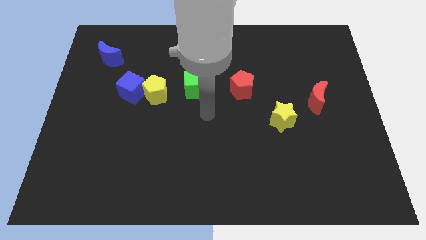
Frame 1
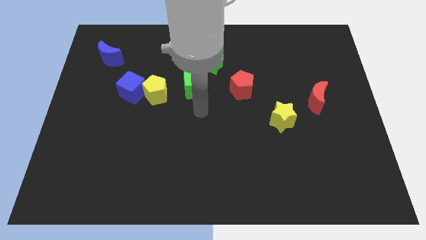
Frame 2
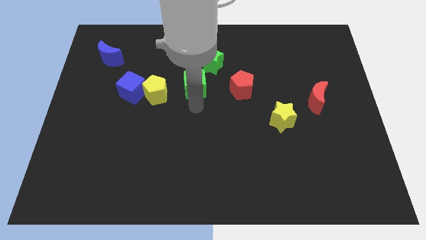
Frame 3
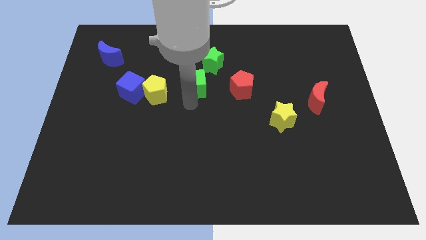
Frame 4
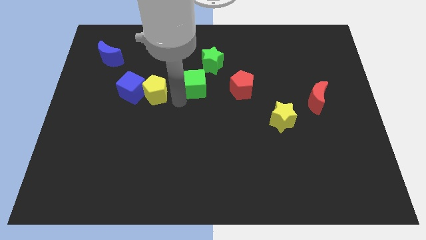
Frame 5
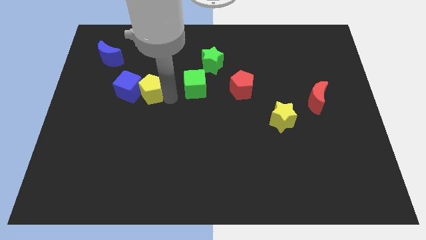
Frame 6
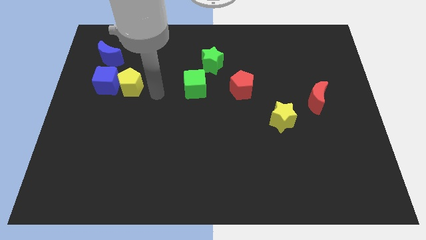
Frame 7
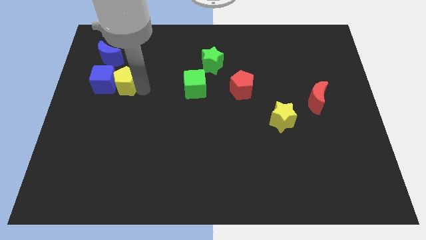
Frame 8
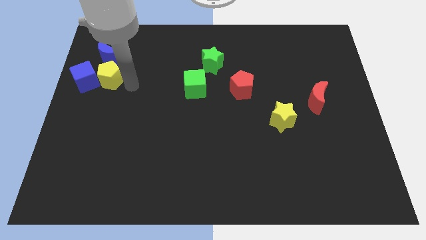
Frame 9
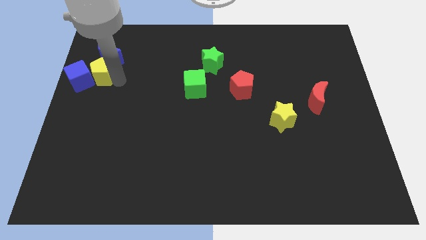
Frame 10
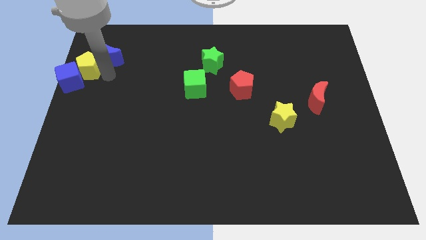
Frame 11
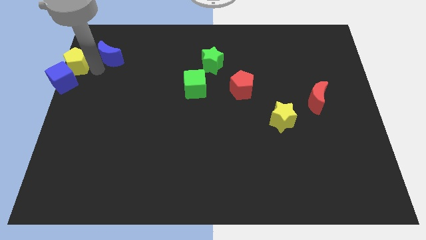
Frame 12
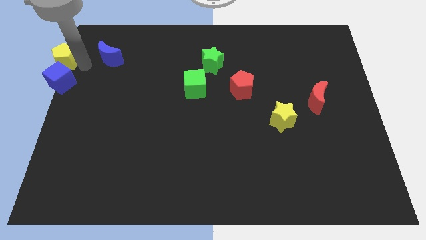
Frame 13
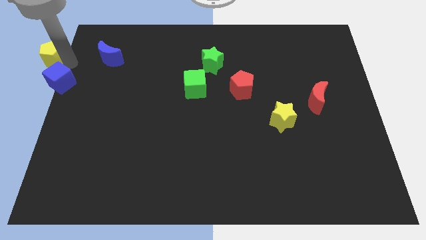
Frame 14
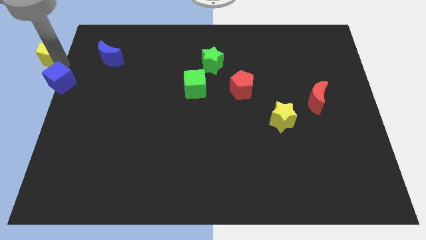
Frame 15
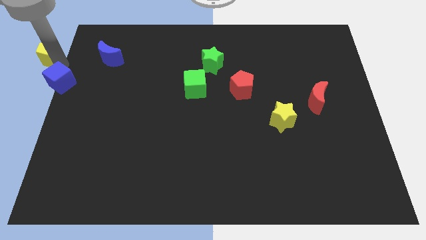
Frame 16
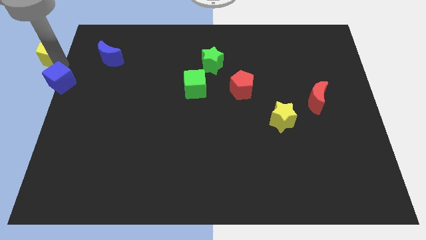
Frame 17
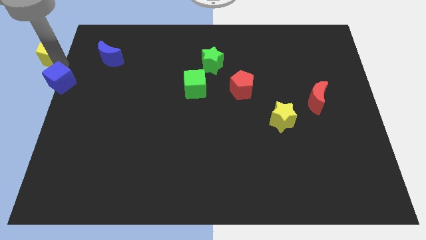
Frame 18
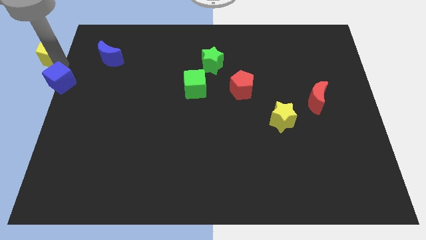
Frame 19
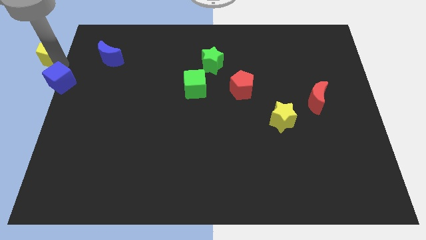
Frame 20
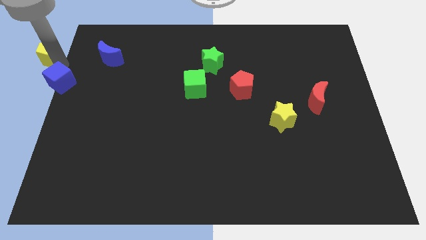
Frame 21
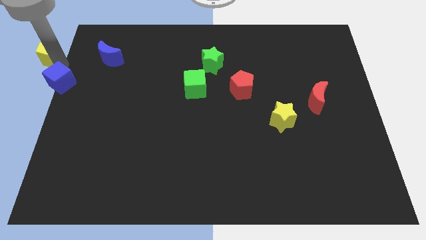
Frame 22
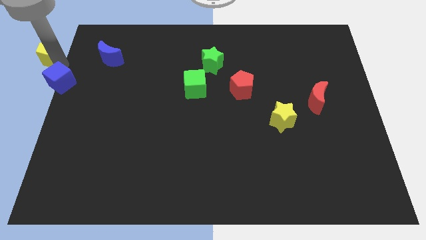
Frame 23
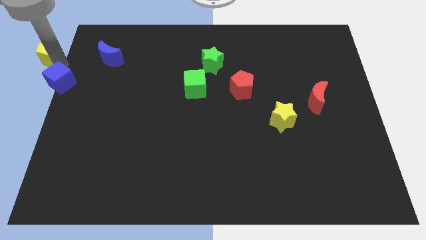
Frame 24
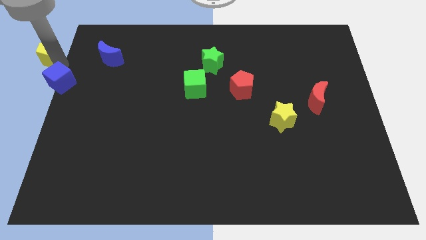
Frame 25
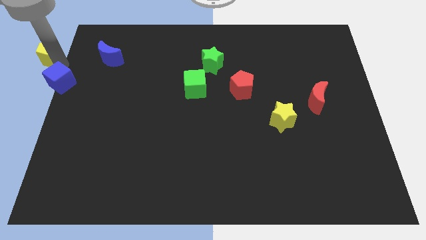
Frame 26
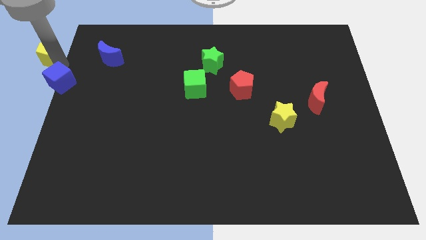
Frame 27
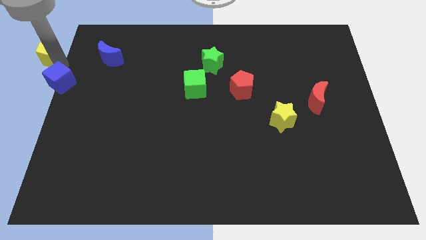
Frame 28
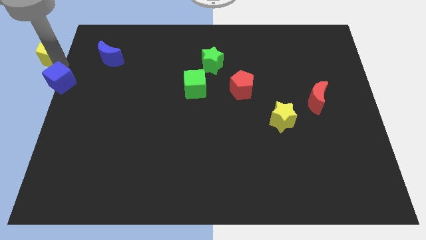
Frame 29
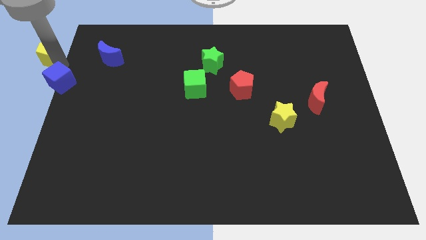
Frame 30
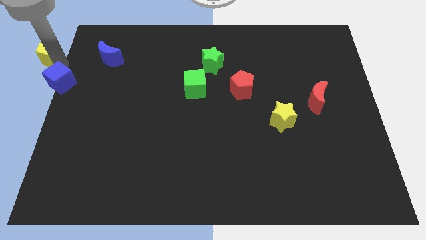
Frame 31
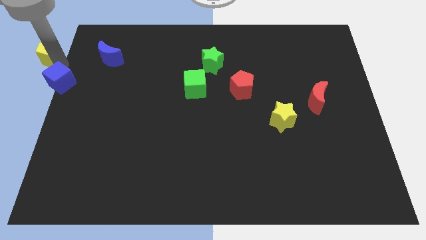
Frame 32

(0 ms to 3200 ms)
pull the blue cube apart from the yellow pentagon

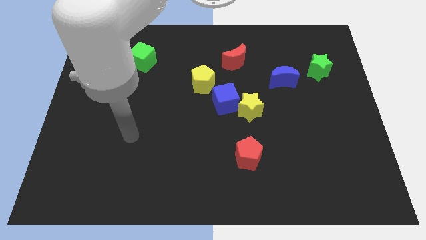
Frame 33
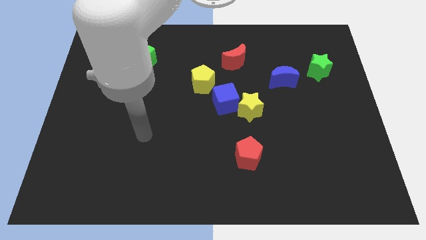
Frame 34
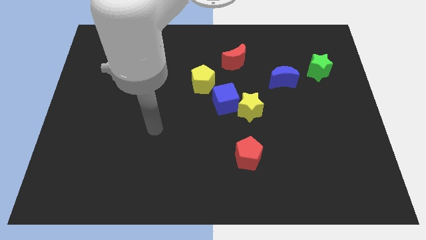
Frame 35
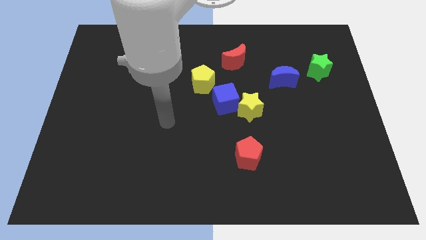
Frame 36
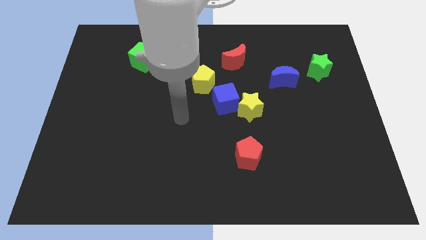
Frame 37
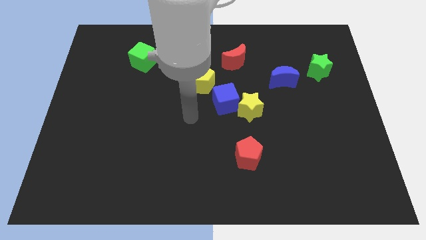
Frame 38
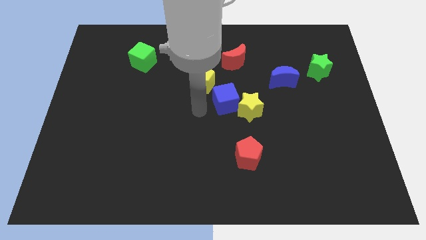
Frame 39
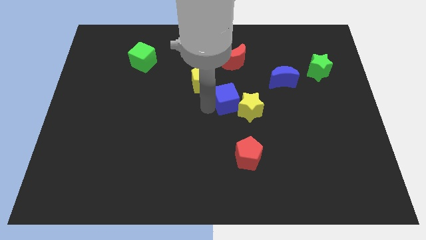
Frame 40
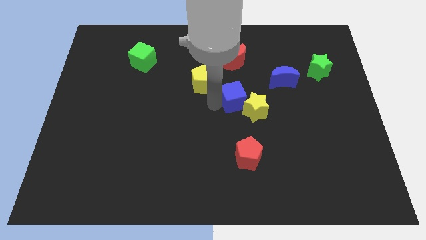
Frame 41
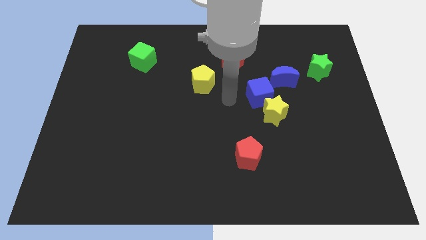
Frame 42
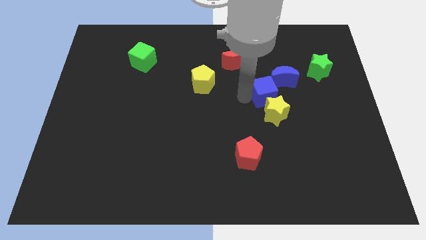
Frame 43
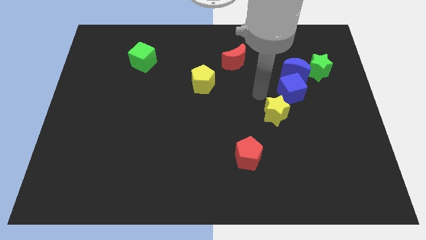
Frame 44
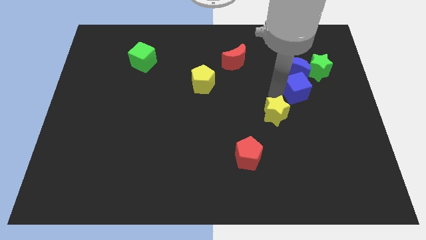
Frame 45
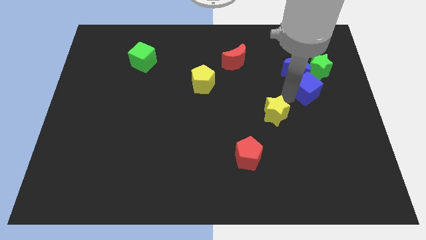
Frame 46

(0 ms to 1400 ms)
move the yellow star away from the blue cube

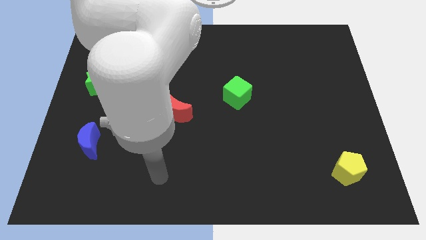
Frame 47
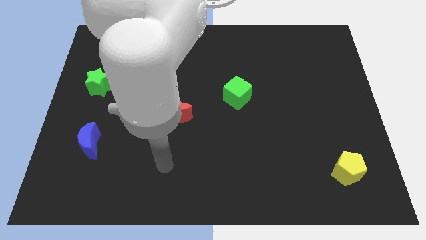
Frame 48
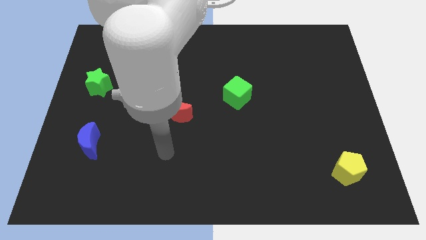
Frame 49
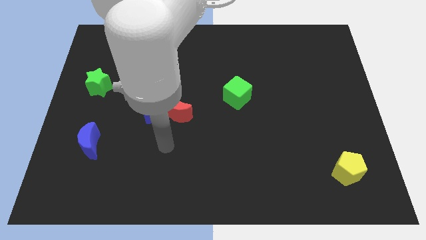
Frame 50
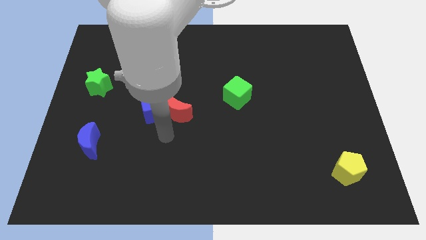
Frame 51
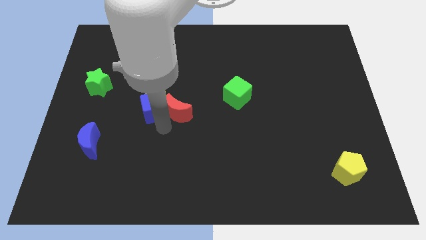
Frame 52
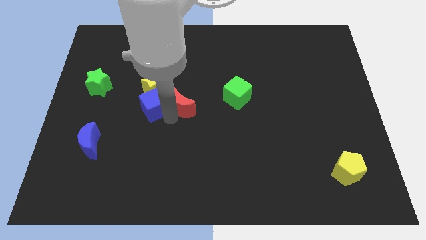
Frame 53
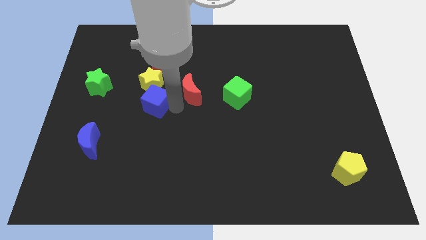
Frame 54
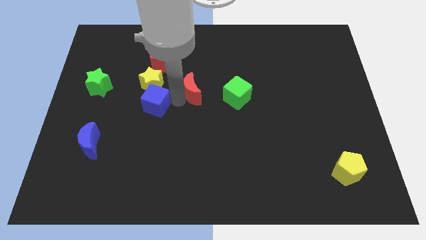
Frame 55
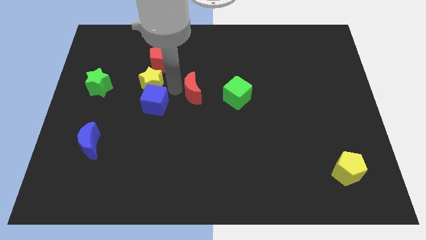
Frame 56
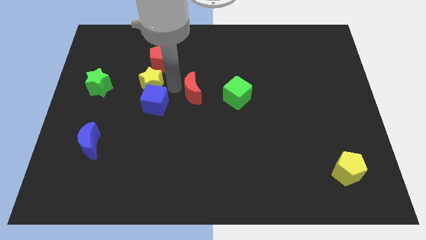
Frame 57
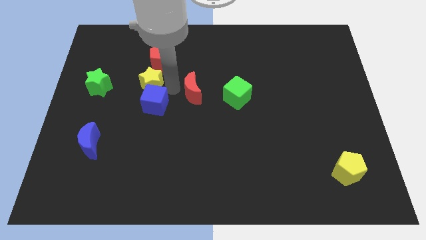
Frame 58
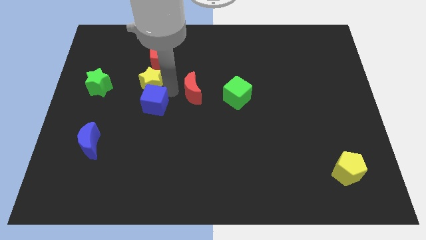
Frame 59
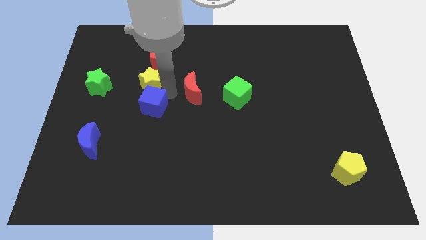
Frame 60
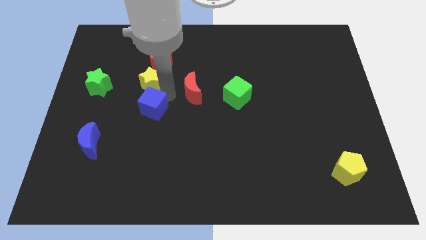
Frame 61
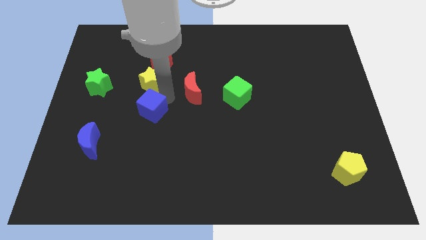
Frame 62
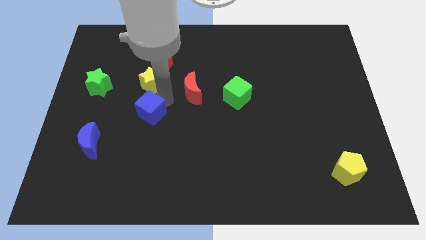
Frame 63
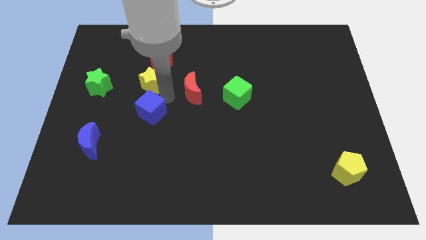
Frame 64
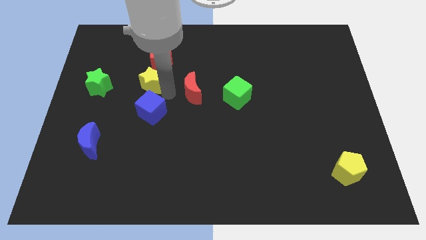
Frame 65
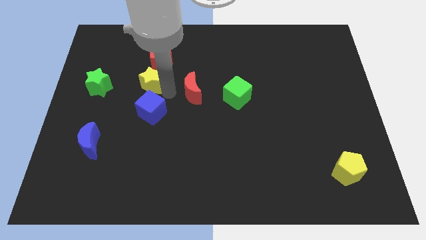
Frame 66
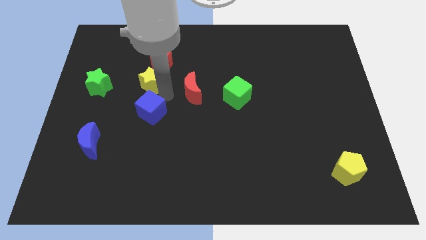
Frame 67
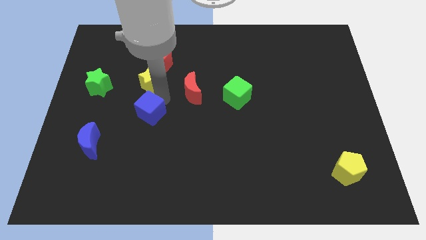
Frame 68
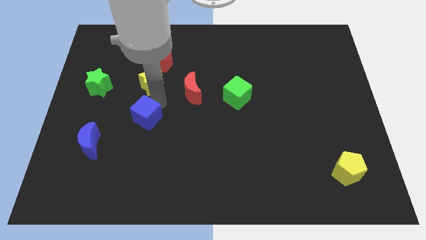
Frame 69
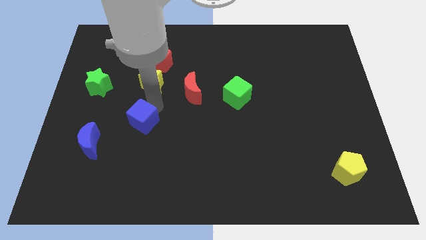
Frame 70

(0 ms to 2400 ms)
move the blue cube away from the red moon and yellow star

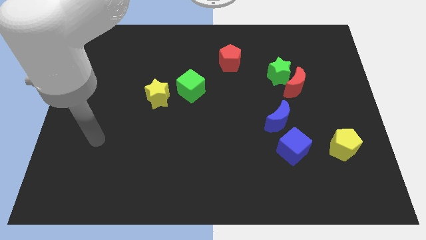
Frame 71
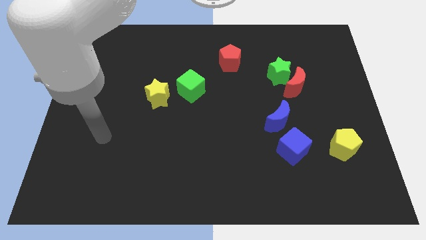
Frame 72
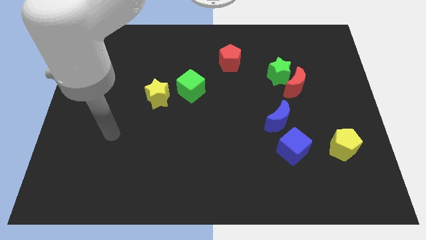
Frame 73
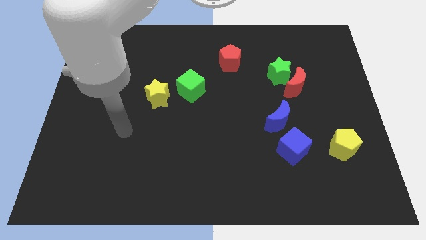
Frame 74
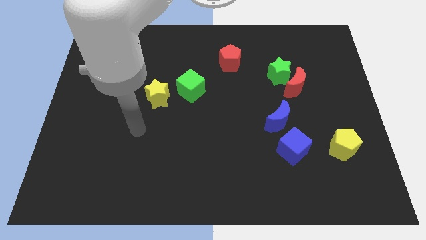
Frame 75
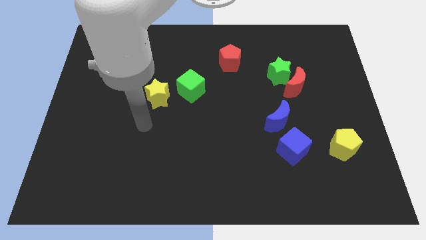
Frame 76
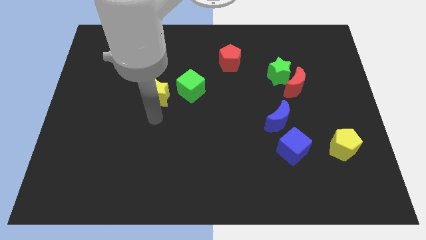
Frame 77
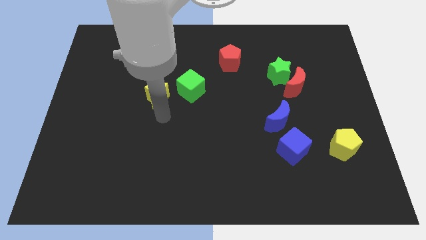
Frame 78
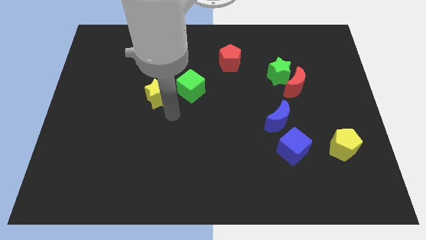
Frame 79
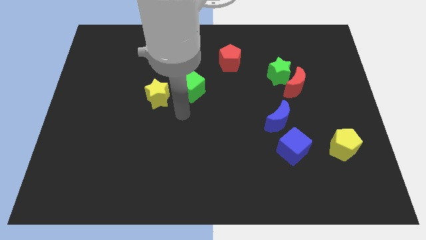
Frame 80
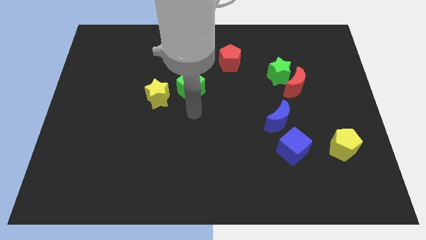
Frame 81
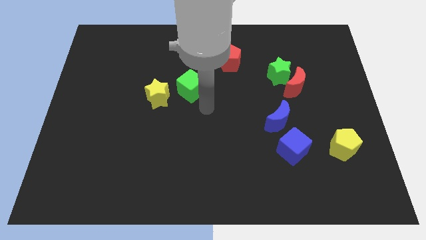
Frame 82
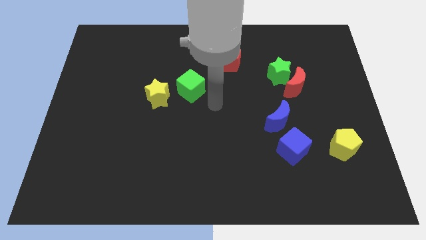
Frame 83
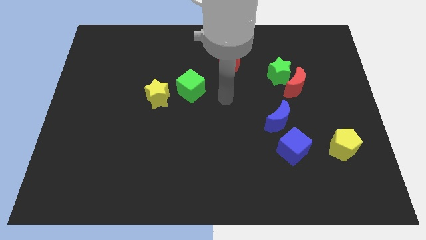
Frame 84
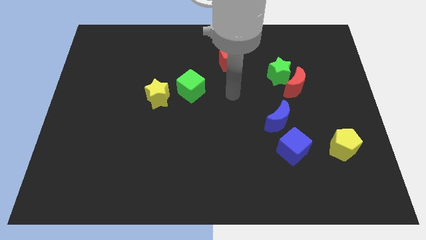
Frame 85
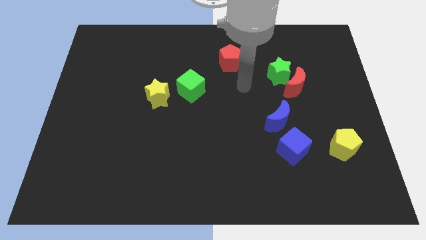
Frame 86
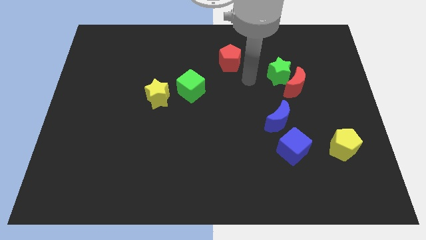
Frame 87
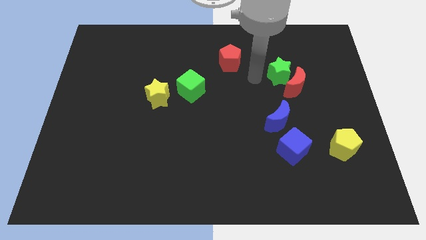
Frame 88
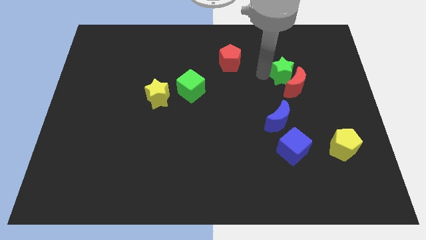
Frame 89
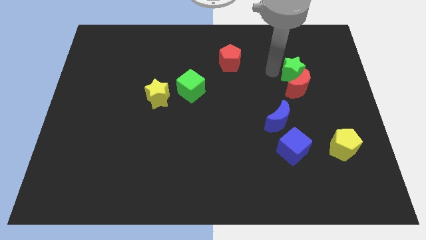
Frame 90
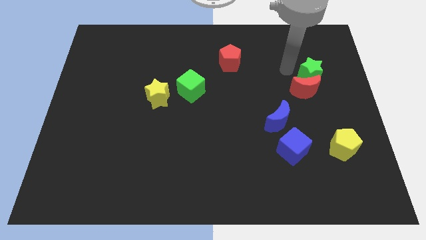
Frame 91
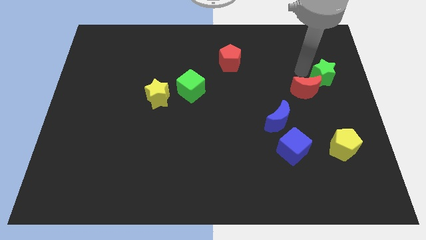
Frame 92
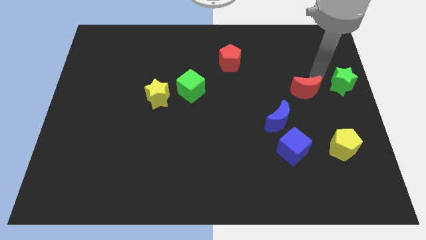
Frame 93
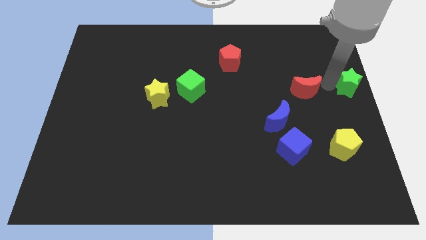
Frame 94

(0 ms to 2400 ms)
separate the red moon from the green star
